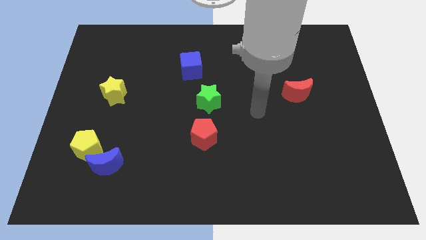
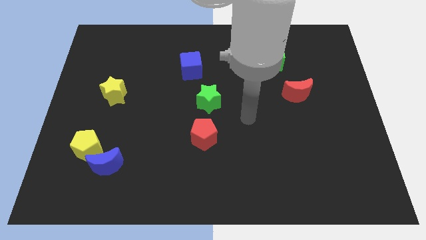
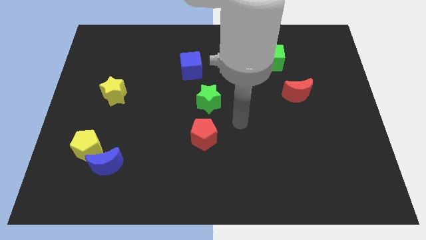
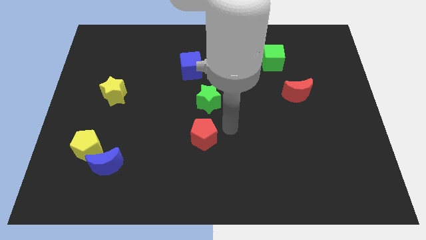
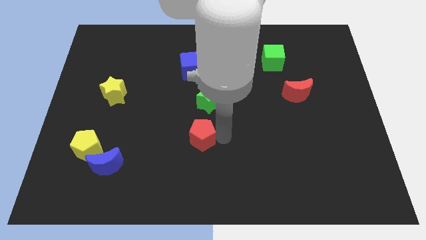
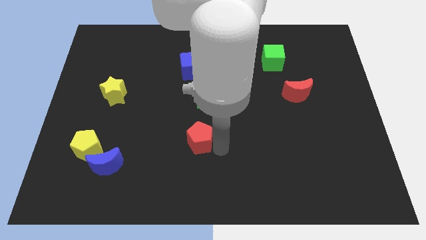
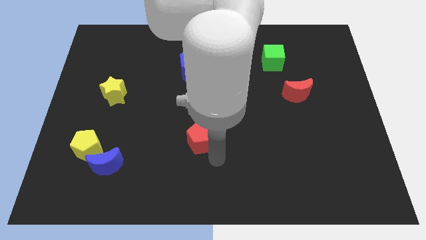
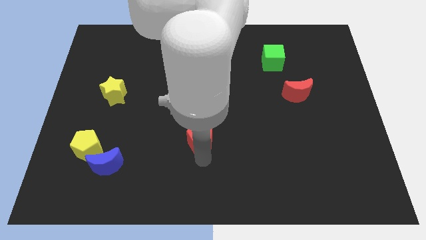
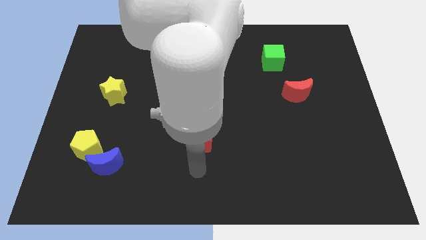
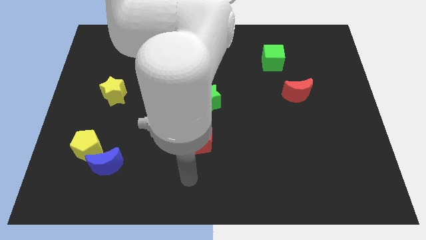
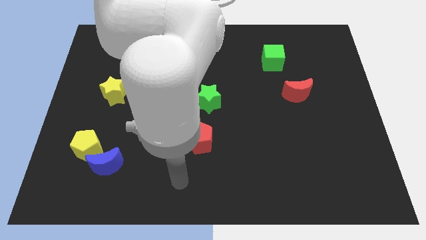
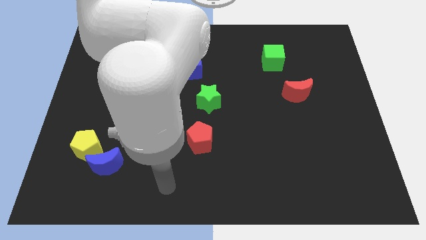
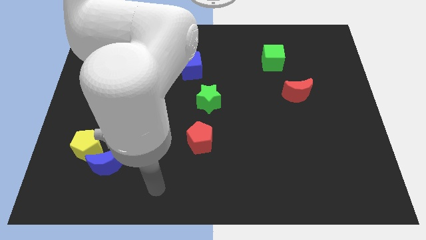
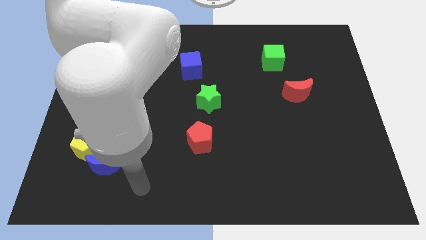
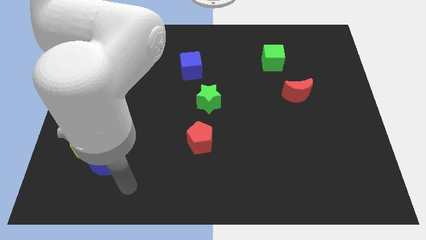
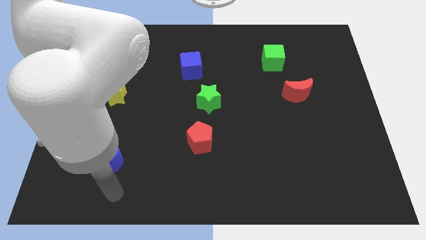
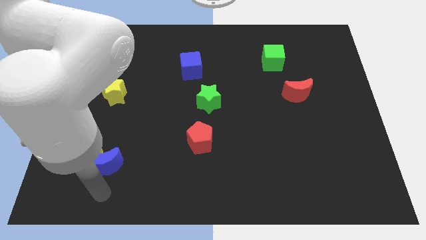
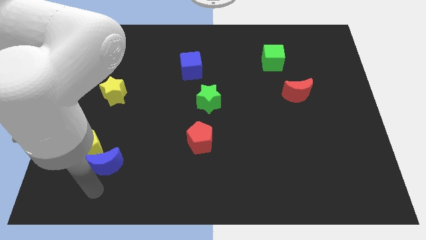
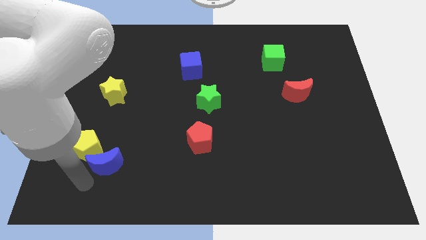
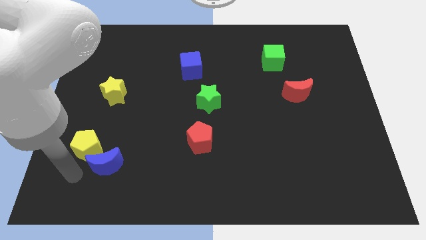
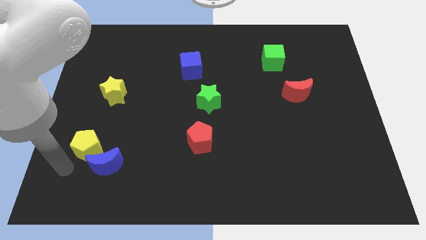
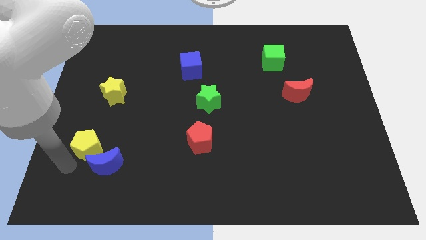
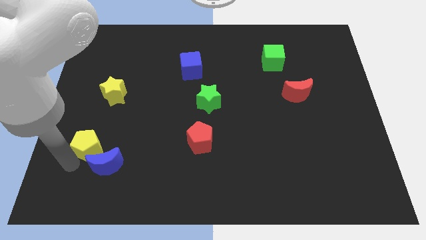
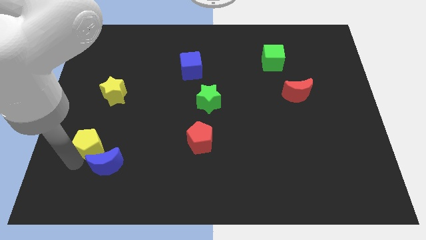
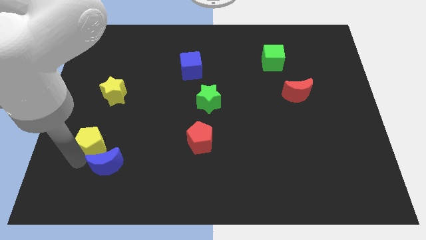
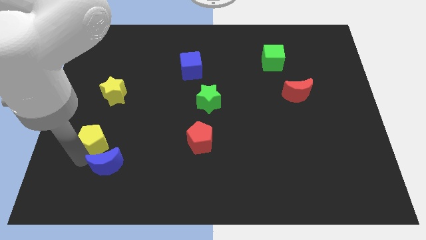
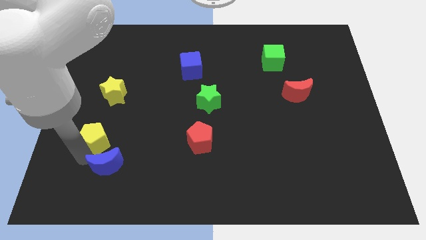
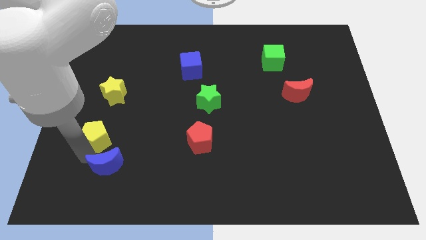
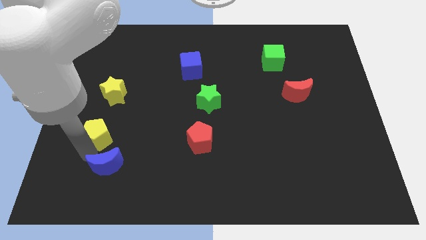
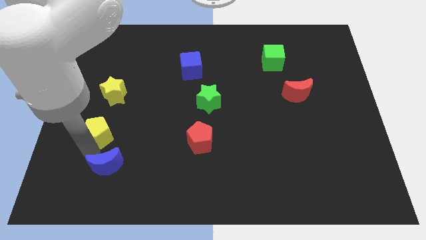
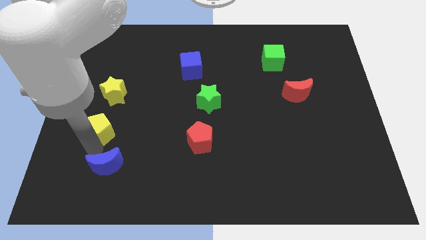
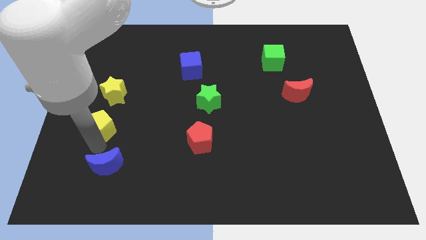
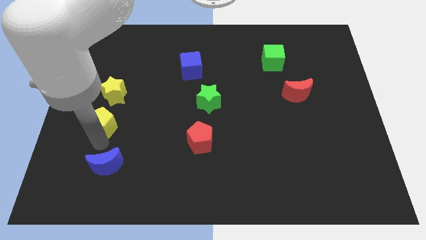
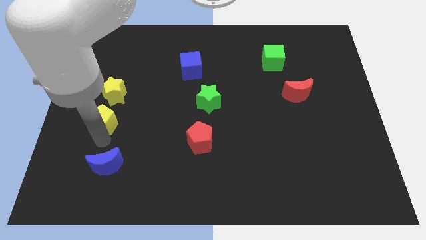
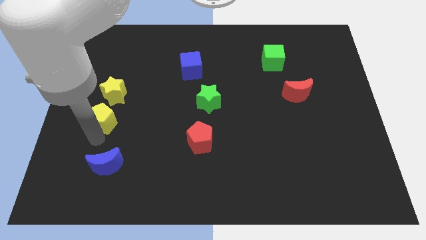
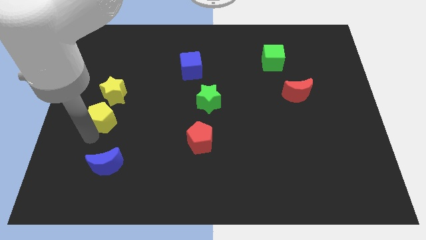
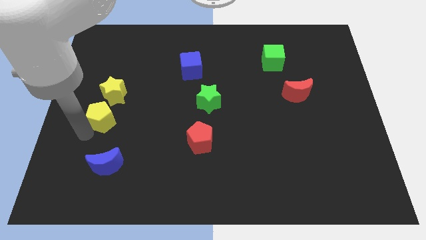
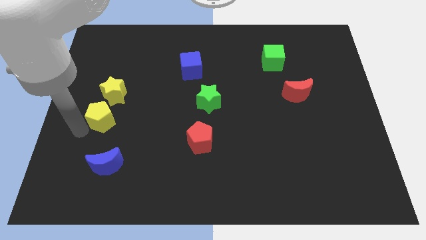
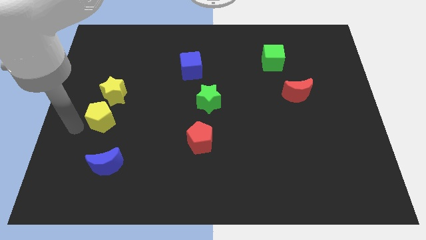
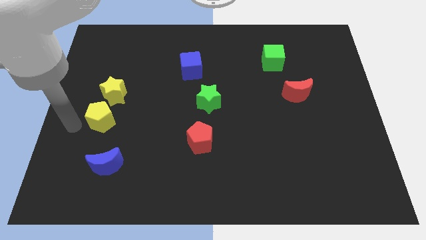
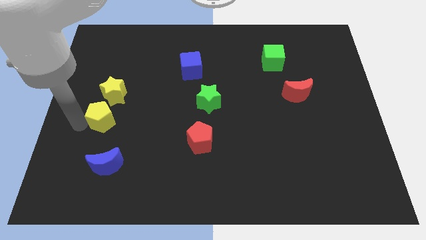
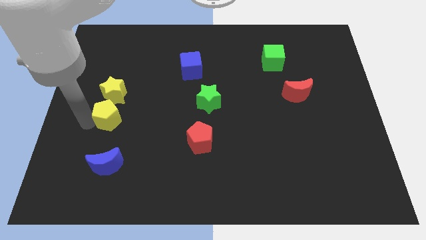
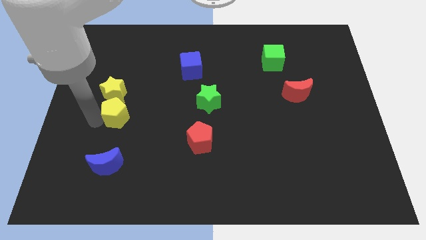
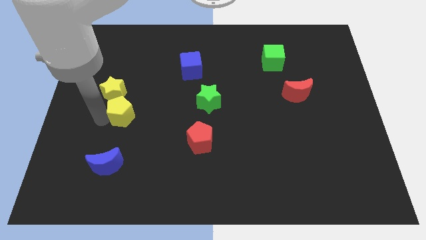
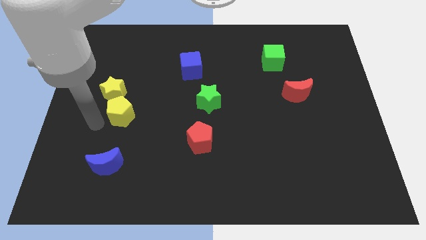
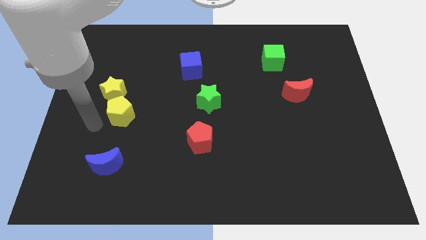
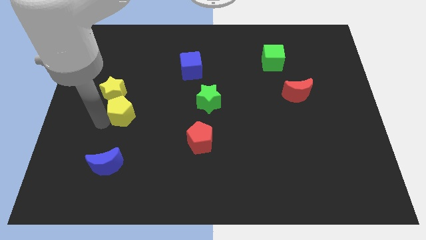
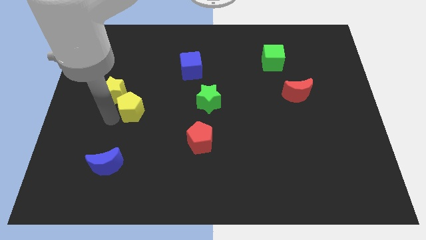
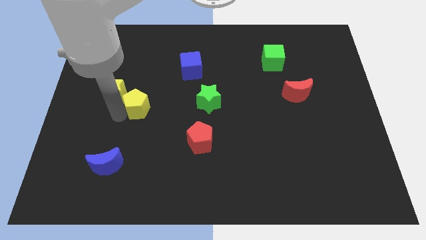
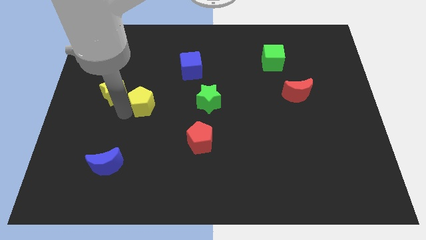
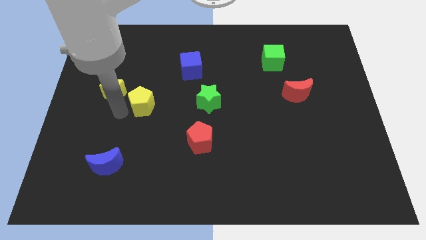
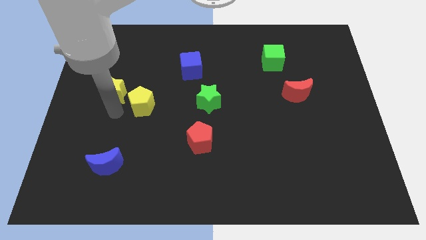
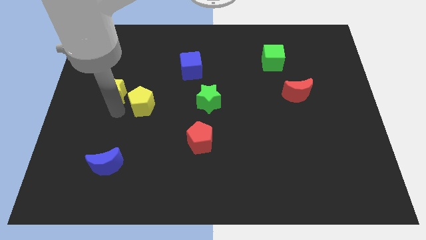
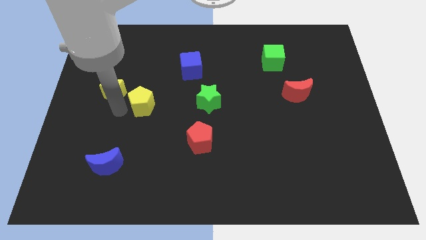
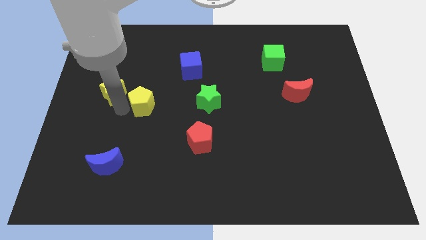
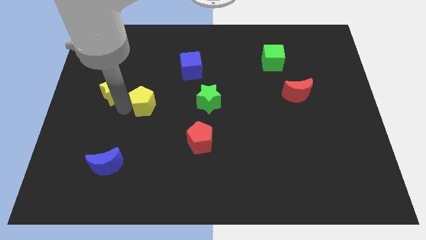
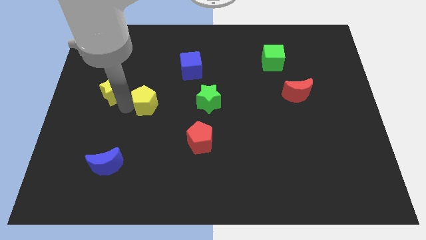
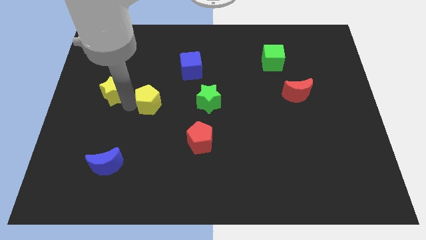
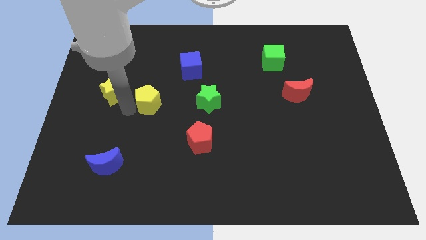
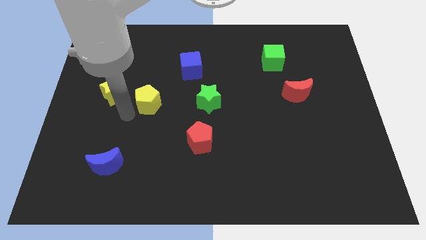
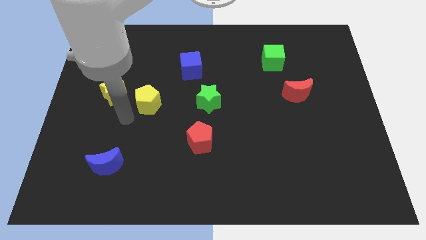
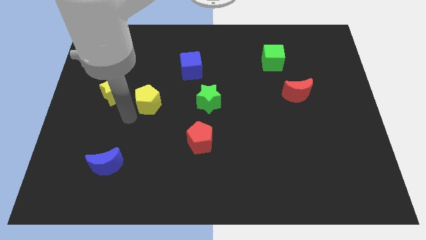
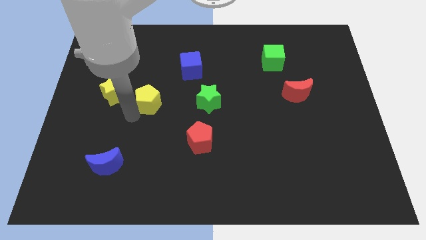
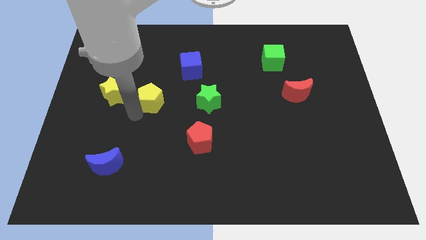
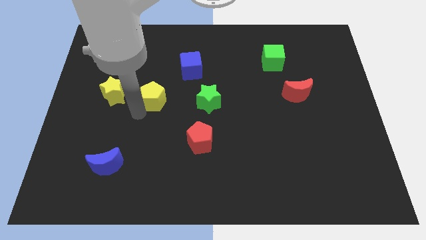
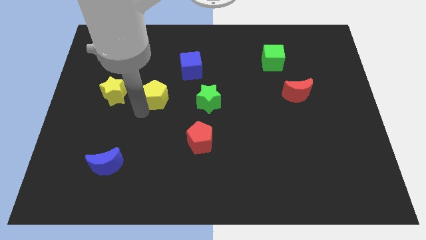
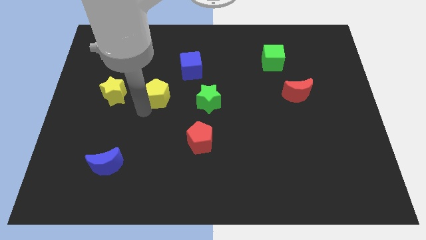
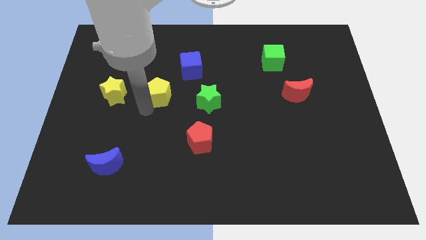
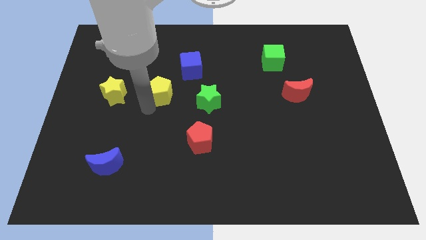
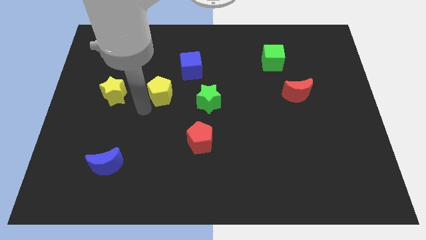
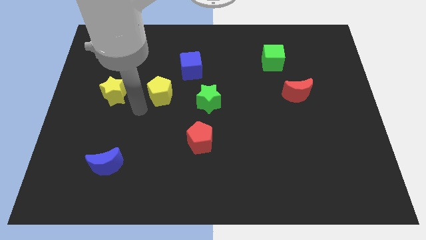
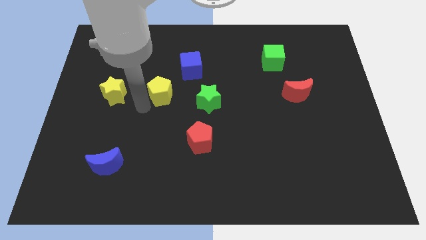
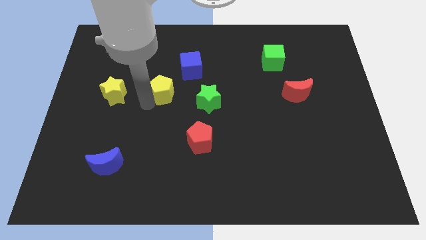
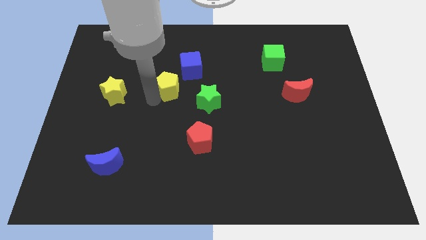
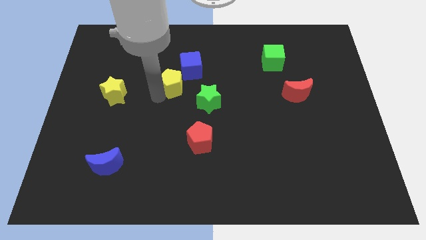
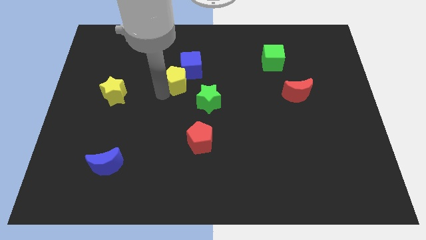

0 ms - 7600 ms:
put the yellow pentagon towards the blue cube
